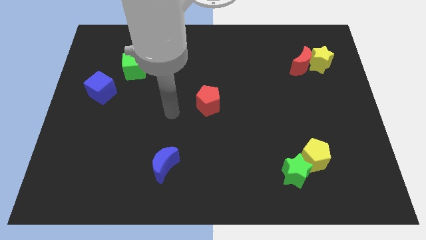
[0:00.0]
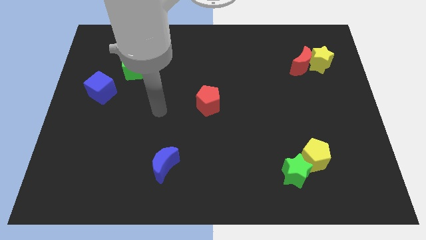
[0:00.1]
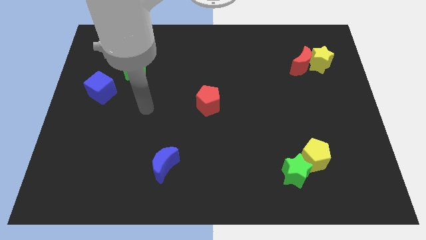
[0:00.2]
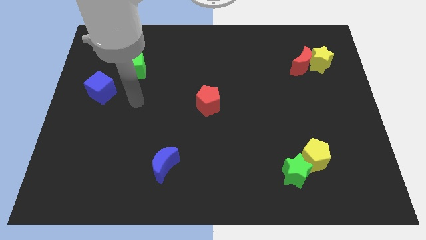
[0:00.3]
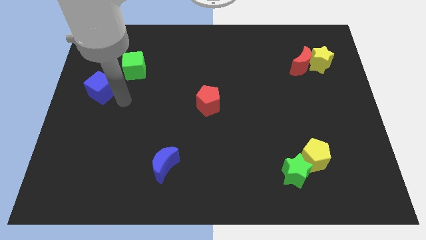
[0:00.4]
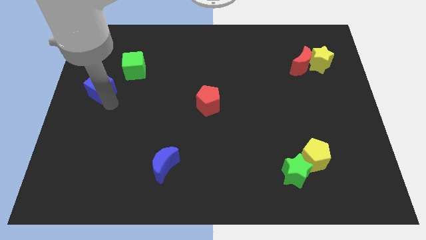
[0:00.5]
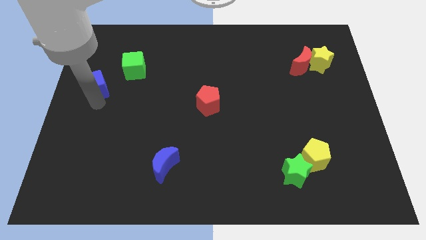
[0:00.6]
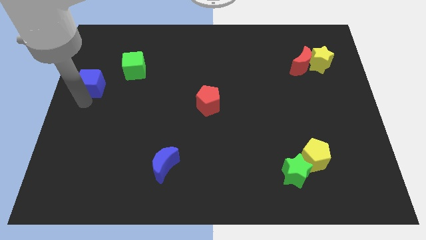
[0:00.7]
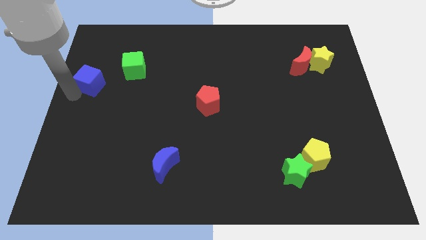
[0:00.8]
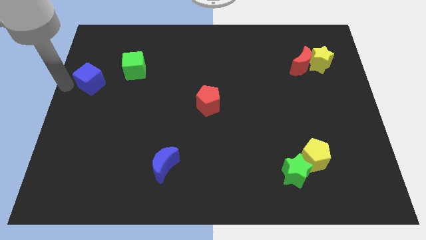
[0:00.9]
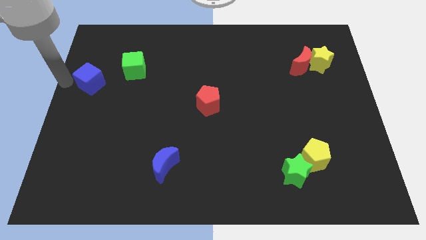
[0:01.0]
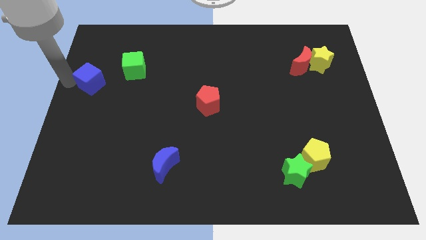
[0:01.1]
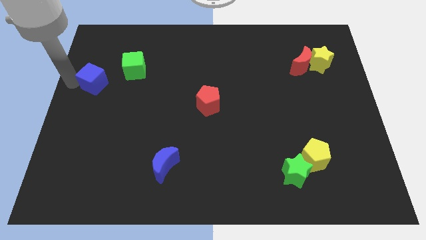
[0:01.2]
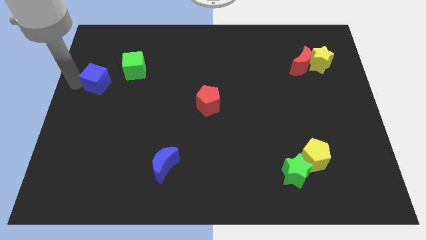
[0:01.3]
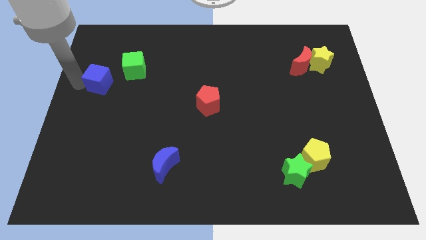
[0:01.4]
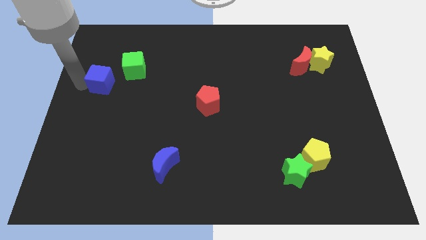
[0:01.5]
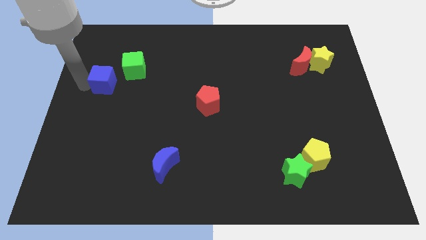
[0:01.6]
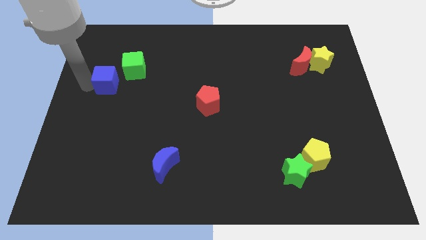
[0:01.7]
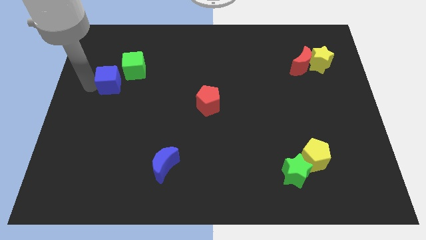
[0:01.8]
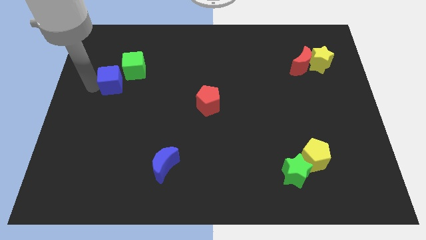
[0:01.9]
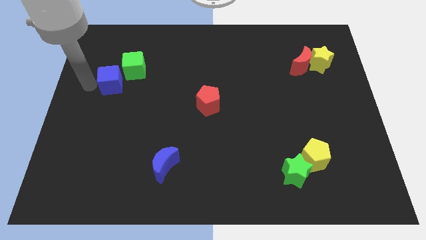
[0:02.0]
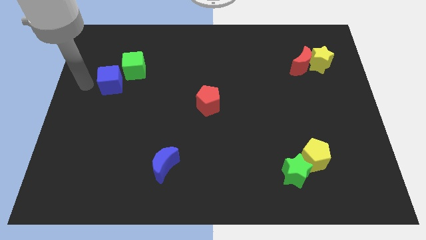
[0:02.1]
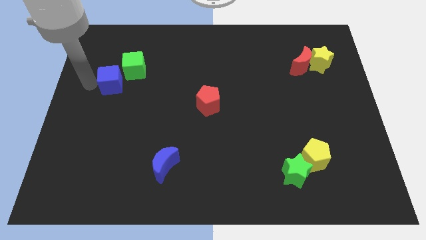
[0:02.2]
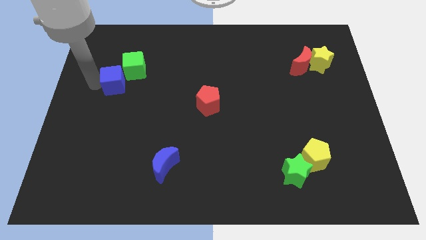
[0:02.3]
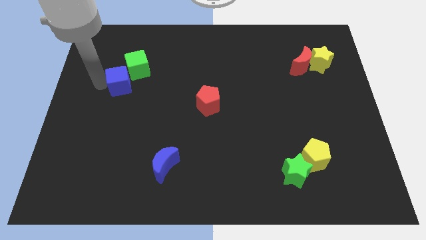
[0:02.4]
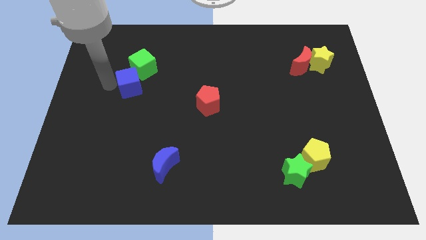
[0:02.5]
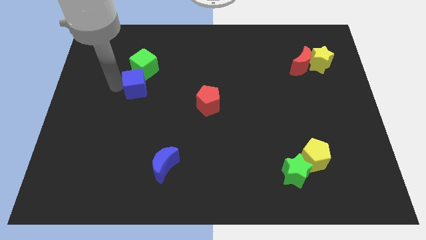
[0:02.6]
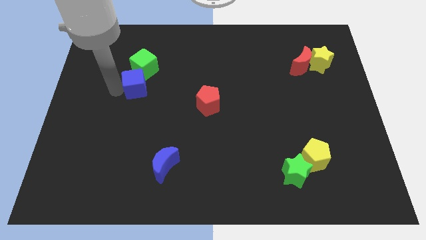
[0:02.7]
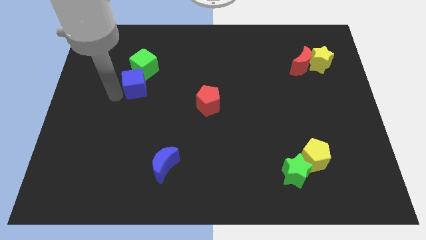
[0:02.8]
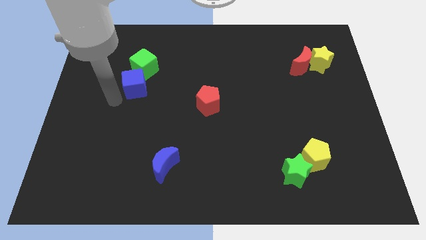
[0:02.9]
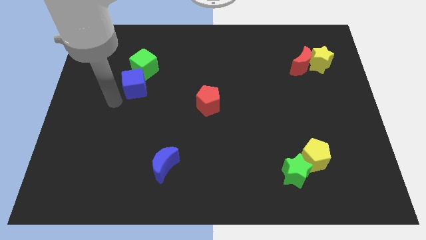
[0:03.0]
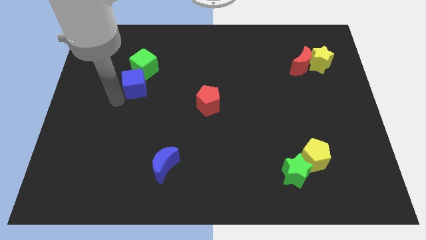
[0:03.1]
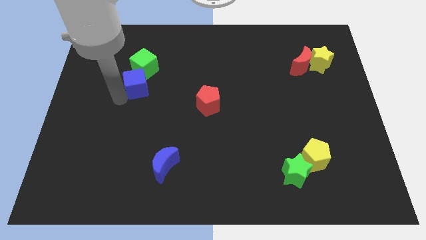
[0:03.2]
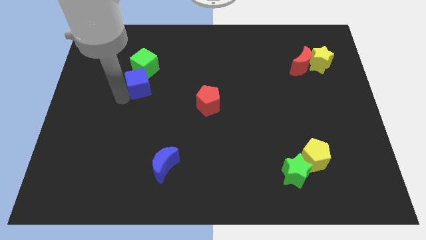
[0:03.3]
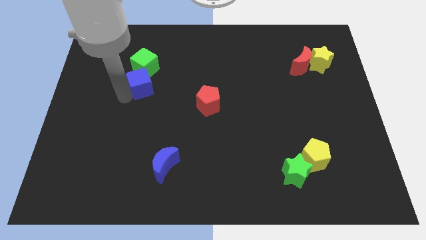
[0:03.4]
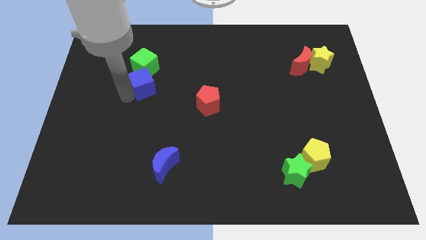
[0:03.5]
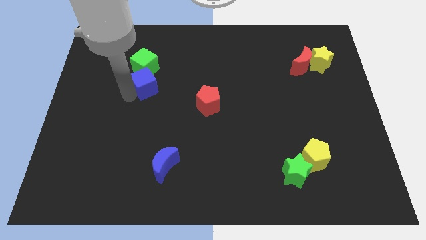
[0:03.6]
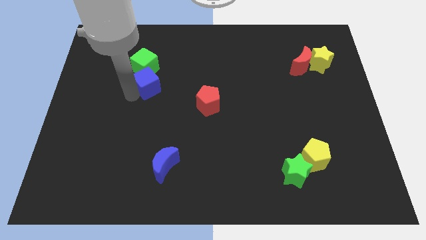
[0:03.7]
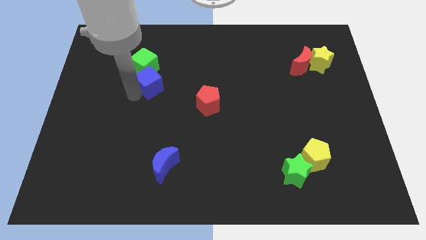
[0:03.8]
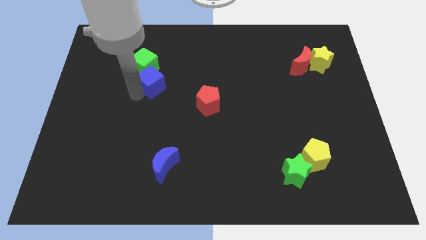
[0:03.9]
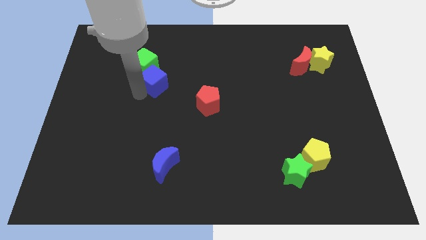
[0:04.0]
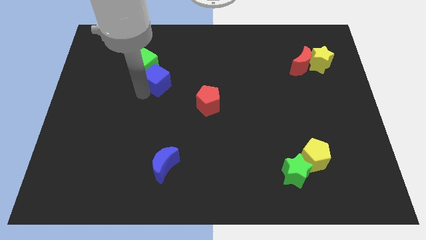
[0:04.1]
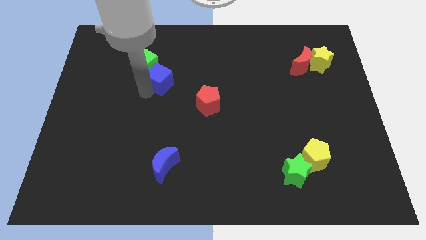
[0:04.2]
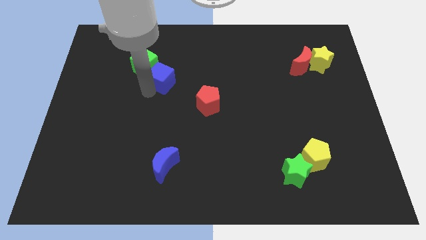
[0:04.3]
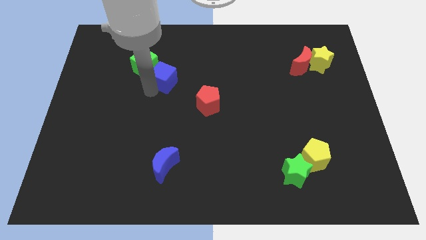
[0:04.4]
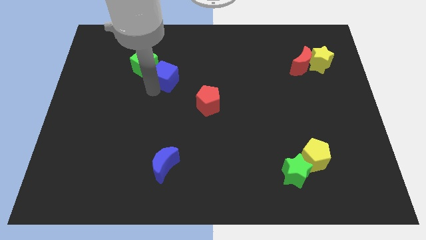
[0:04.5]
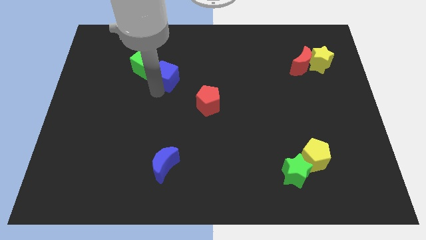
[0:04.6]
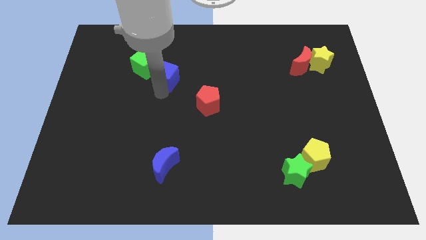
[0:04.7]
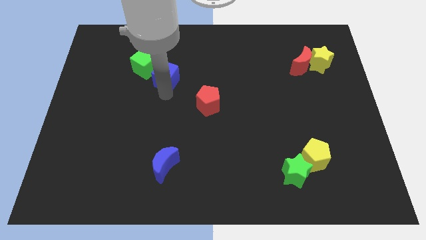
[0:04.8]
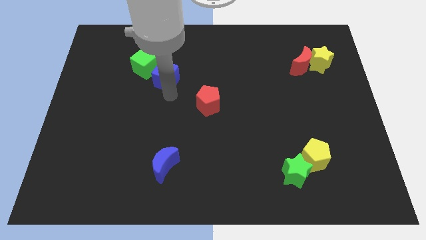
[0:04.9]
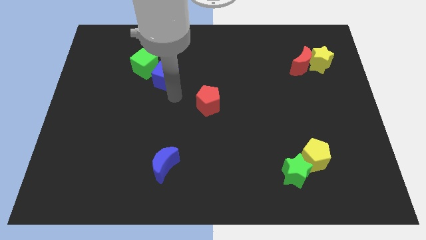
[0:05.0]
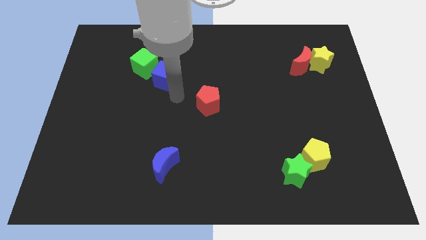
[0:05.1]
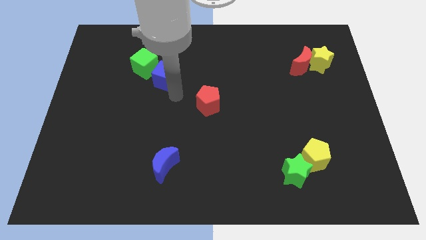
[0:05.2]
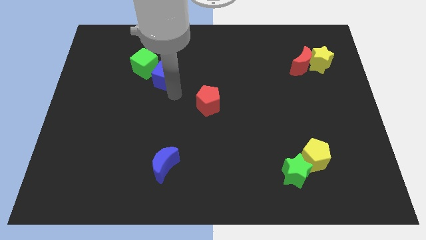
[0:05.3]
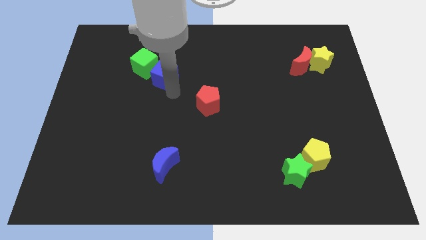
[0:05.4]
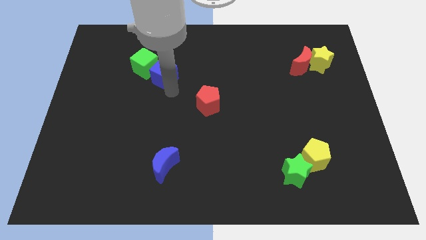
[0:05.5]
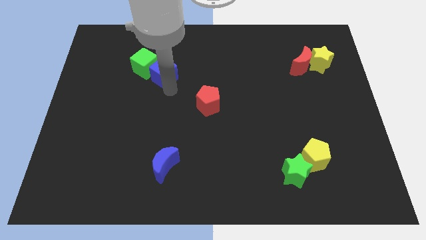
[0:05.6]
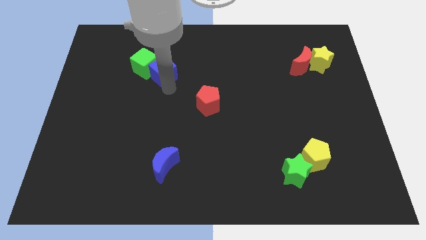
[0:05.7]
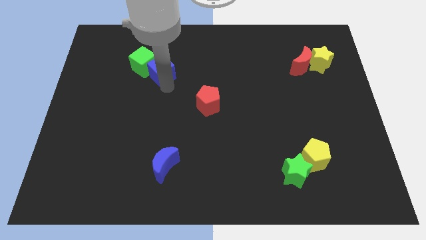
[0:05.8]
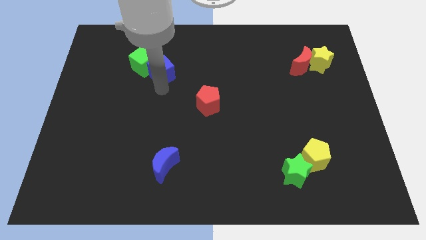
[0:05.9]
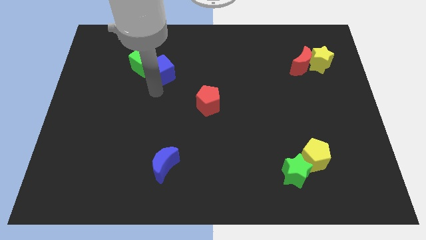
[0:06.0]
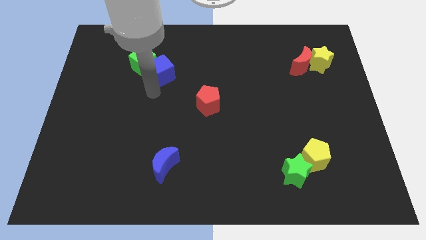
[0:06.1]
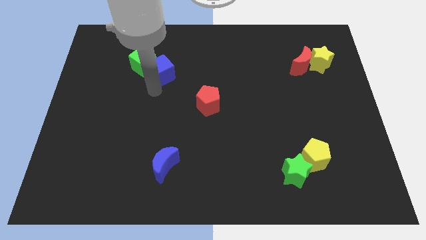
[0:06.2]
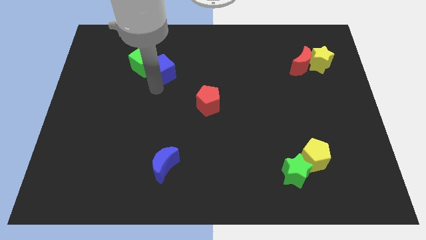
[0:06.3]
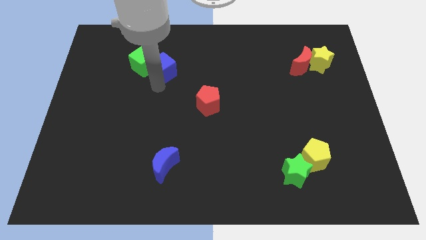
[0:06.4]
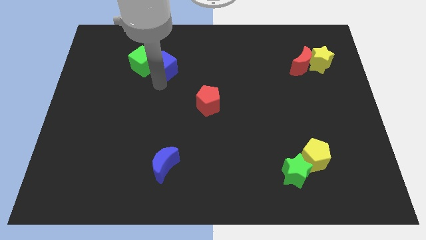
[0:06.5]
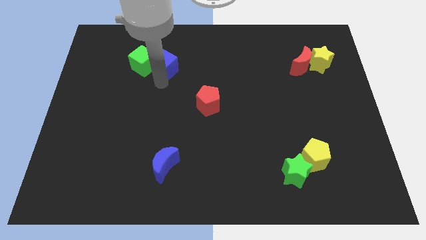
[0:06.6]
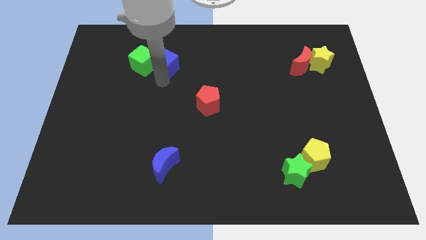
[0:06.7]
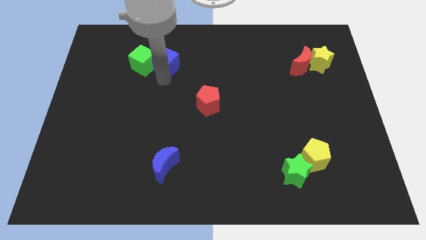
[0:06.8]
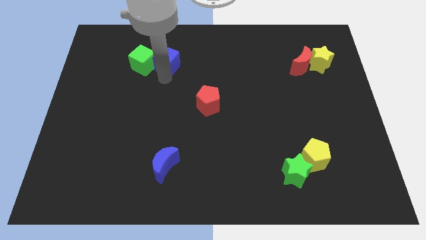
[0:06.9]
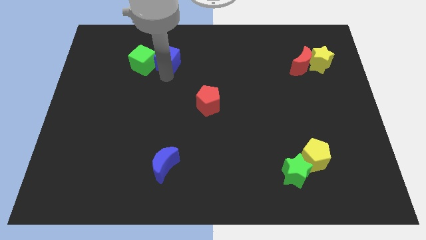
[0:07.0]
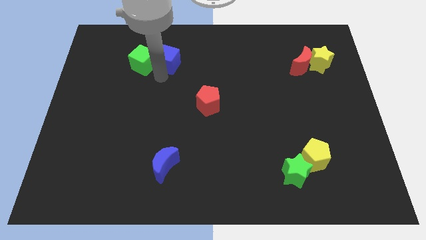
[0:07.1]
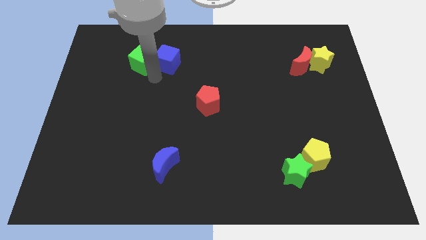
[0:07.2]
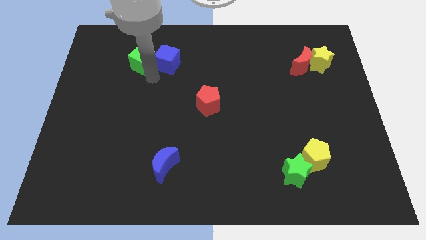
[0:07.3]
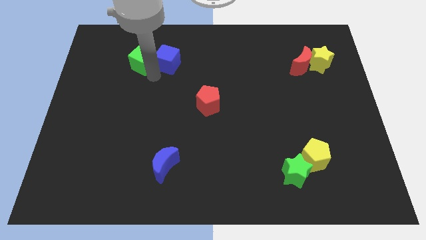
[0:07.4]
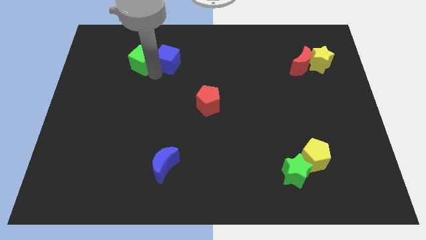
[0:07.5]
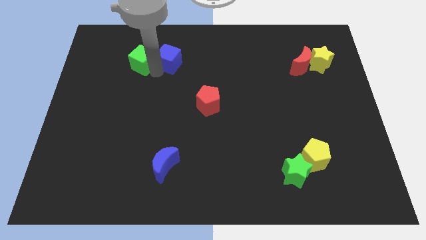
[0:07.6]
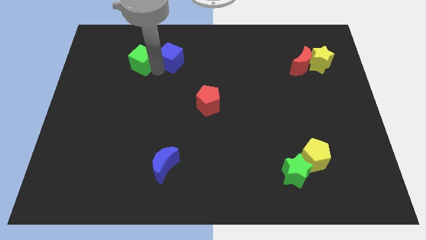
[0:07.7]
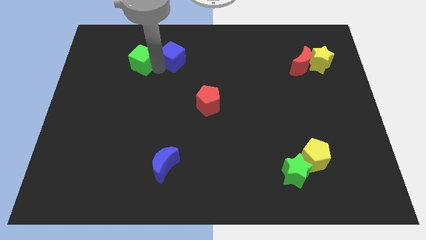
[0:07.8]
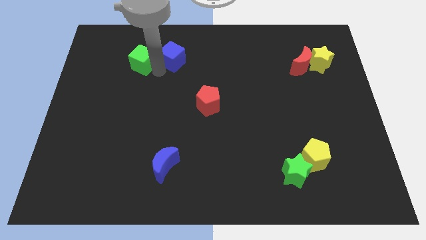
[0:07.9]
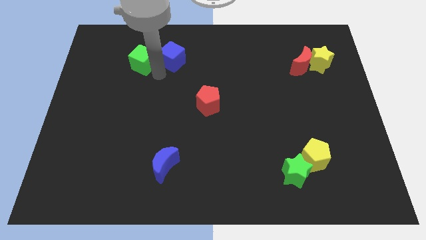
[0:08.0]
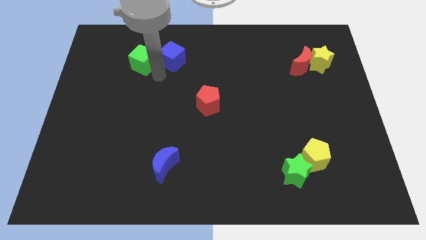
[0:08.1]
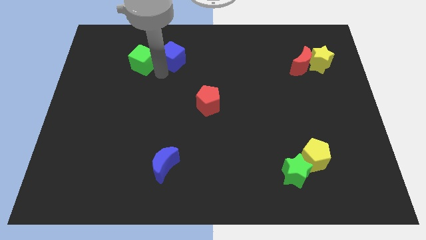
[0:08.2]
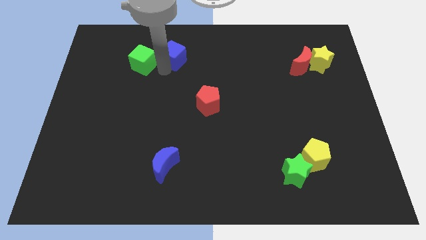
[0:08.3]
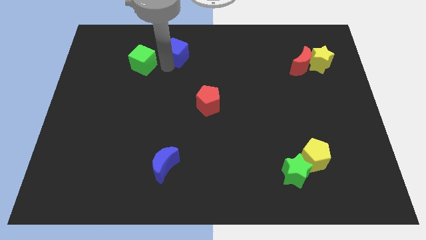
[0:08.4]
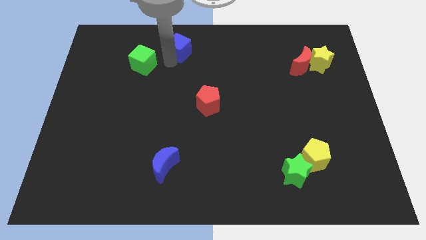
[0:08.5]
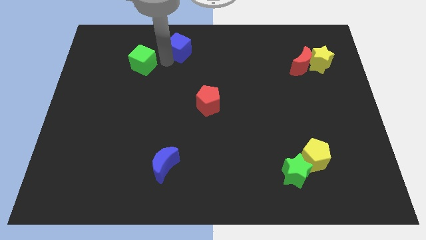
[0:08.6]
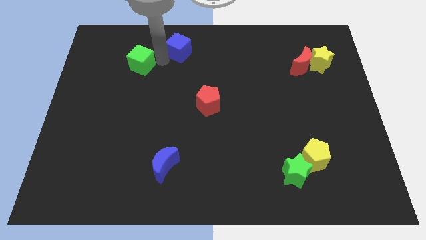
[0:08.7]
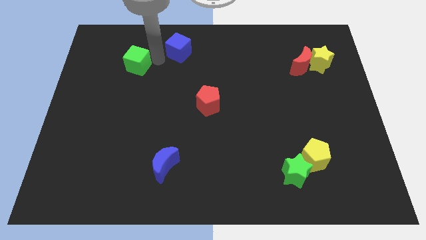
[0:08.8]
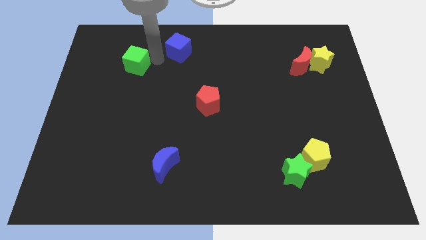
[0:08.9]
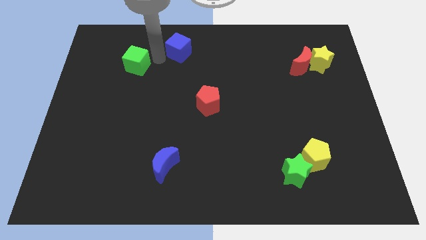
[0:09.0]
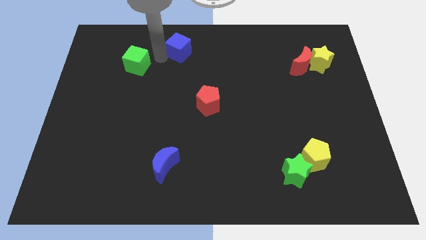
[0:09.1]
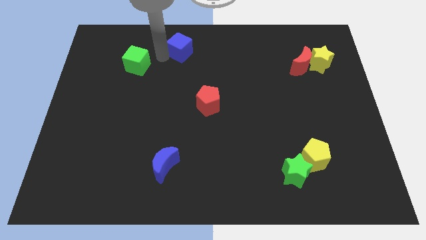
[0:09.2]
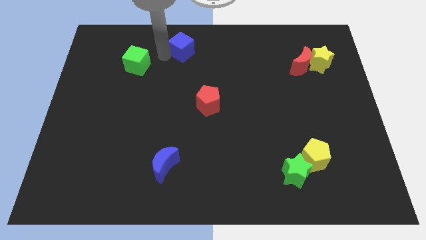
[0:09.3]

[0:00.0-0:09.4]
slide the blue cube to the top side
